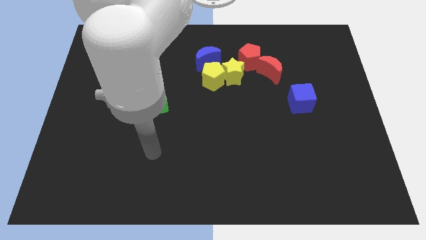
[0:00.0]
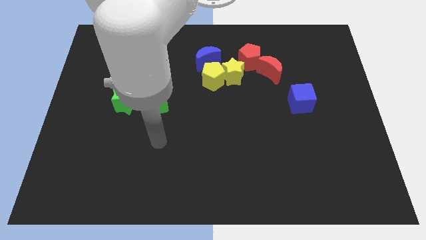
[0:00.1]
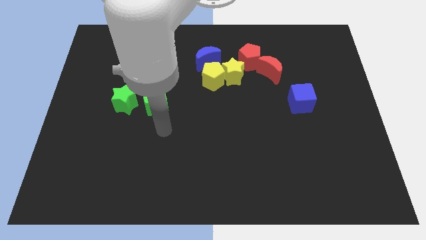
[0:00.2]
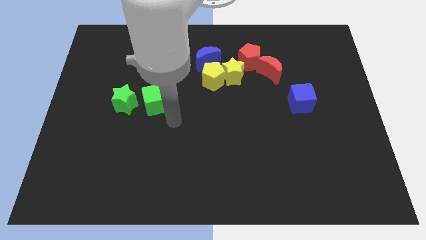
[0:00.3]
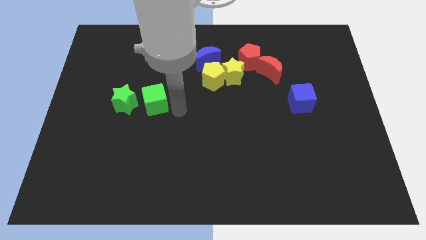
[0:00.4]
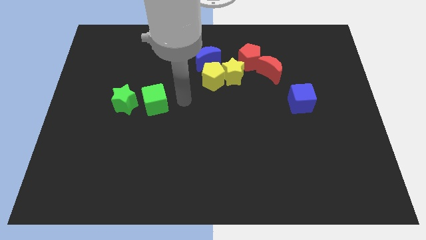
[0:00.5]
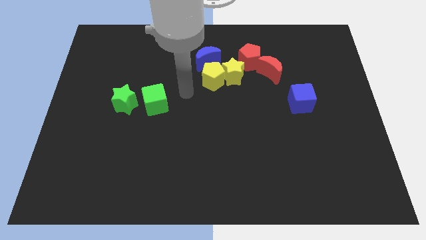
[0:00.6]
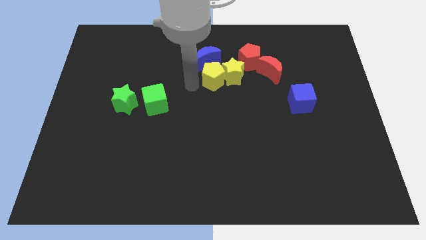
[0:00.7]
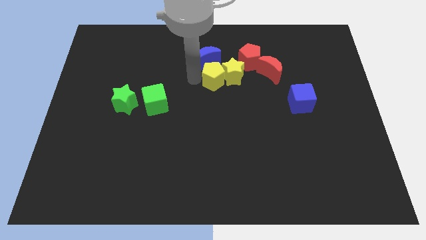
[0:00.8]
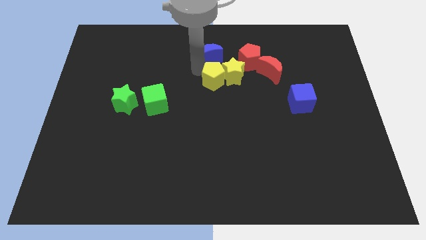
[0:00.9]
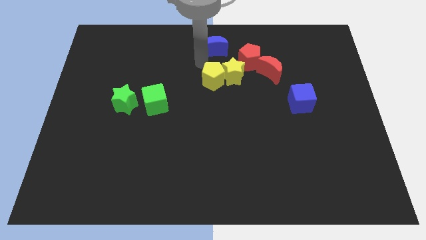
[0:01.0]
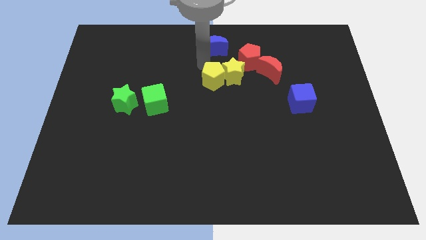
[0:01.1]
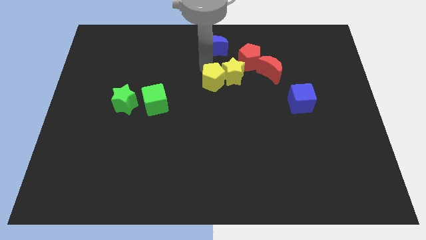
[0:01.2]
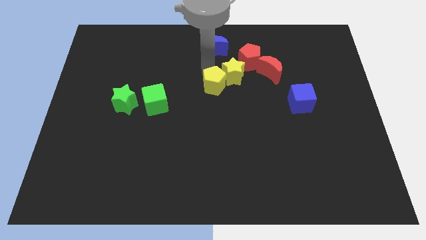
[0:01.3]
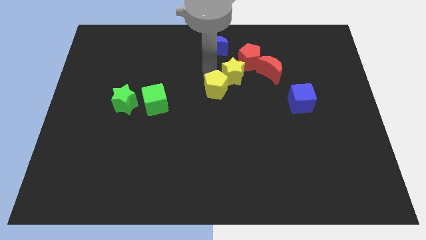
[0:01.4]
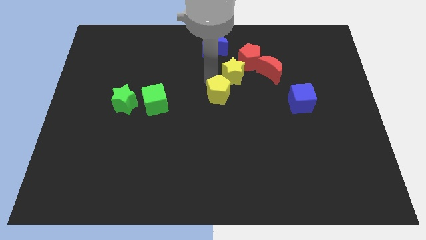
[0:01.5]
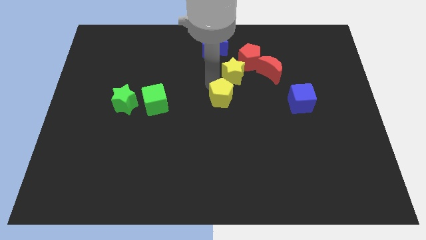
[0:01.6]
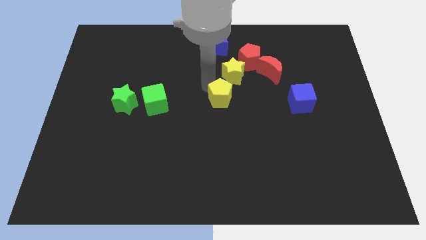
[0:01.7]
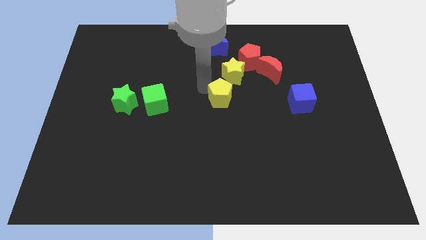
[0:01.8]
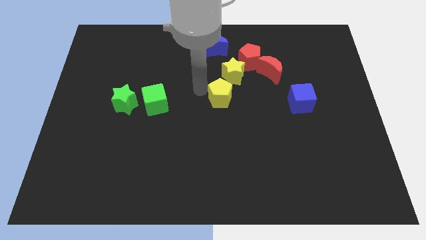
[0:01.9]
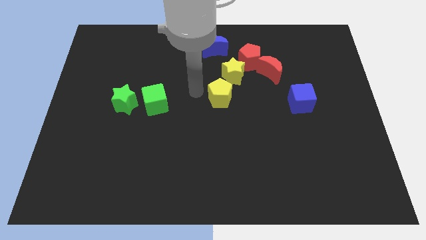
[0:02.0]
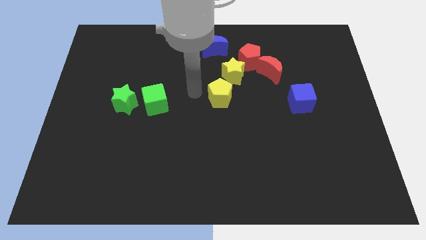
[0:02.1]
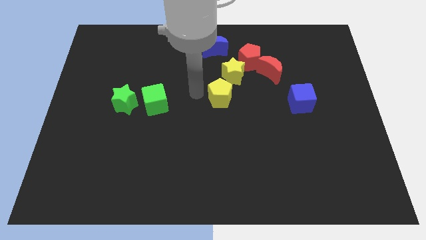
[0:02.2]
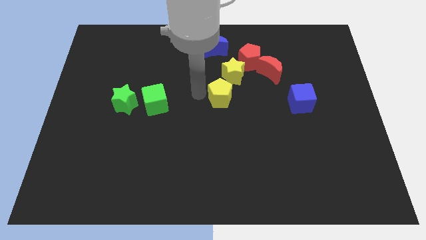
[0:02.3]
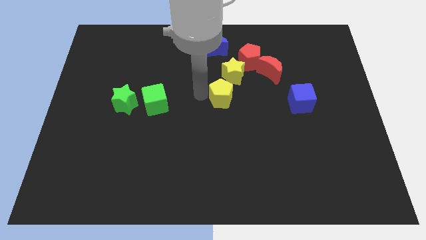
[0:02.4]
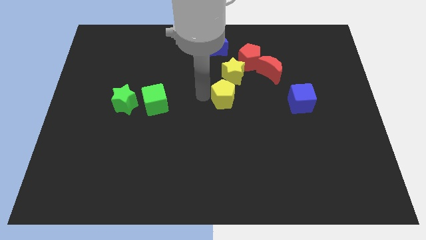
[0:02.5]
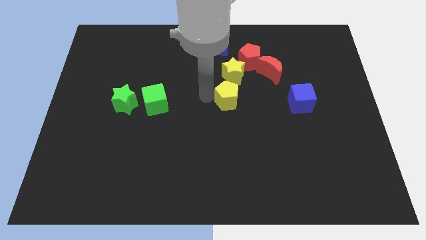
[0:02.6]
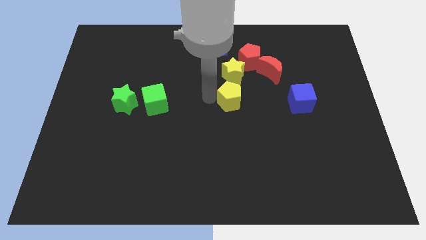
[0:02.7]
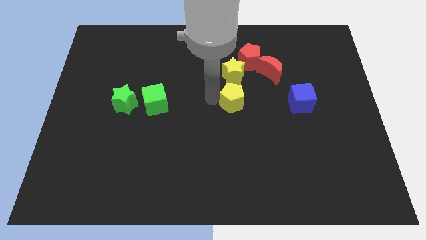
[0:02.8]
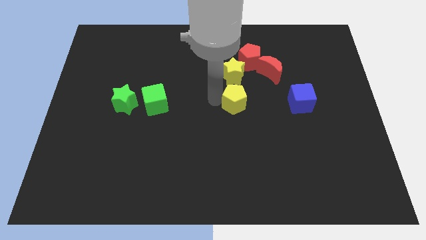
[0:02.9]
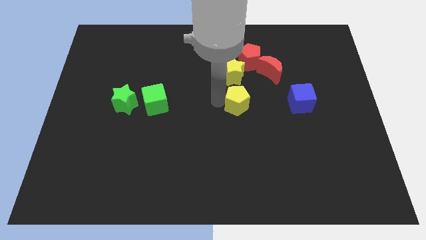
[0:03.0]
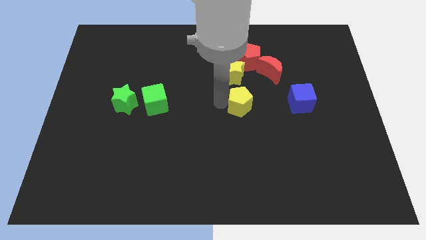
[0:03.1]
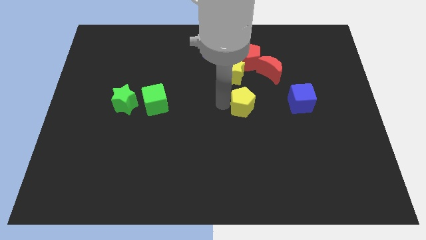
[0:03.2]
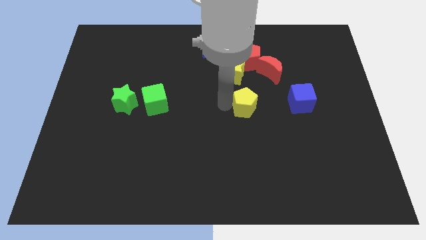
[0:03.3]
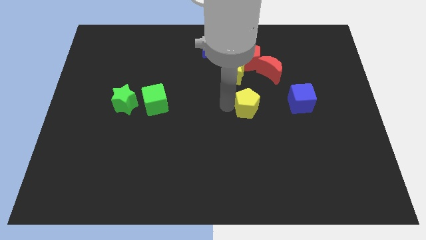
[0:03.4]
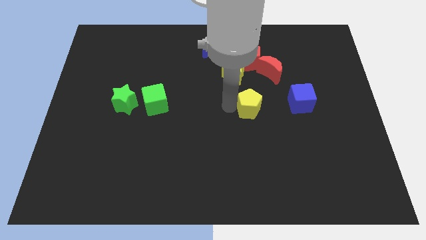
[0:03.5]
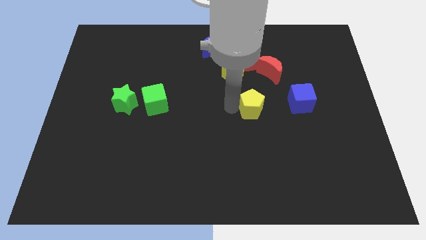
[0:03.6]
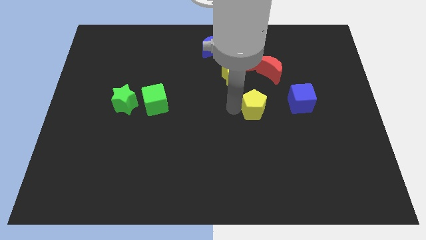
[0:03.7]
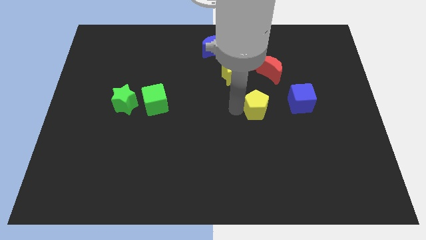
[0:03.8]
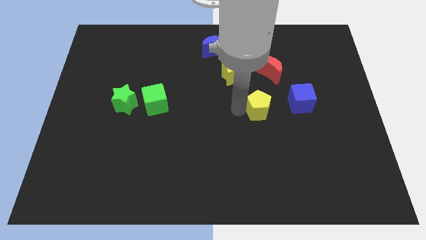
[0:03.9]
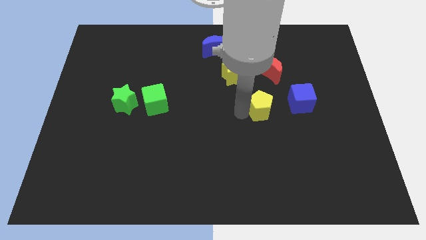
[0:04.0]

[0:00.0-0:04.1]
push the yellow pentagon right somewhat

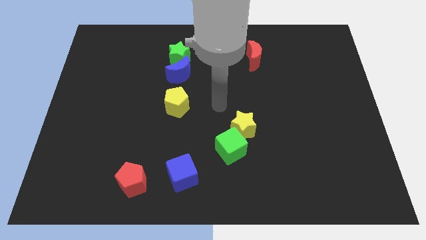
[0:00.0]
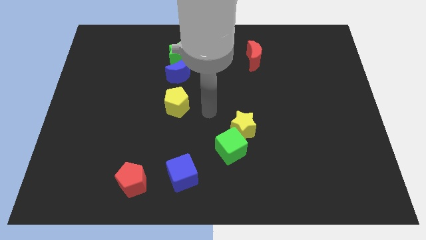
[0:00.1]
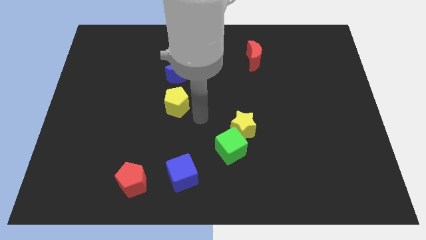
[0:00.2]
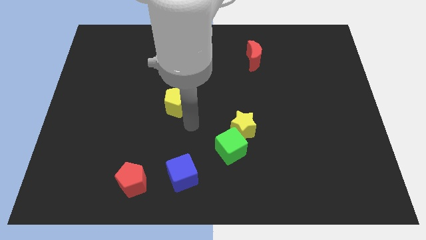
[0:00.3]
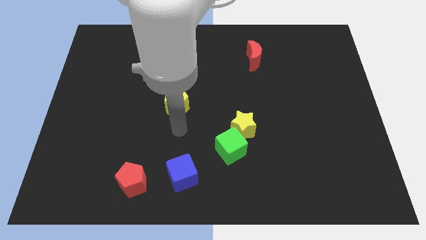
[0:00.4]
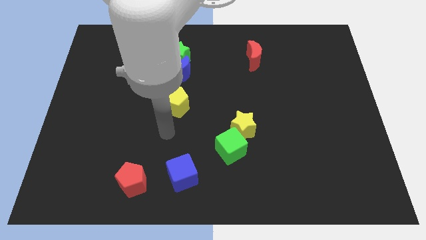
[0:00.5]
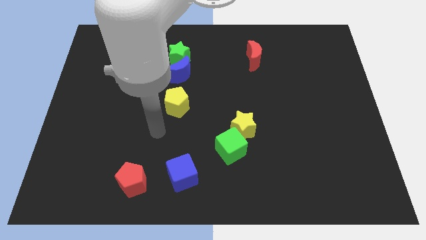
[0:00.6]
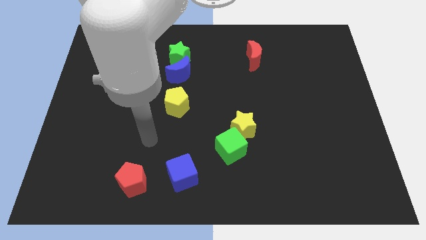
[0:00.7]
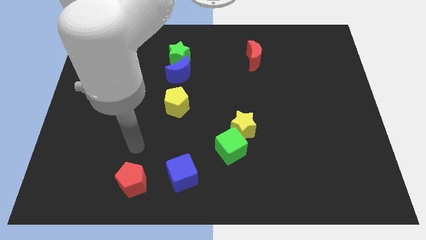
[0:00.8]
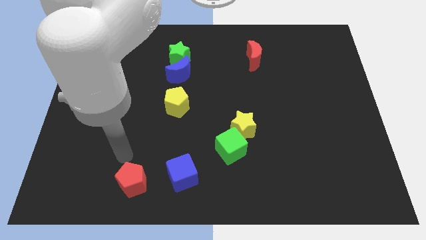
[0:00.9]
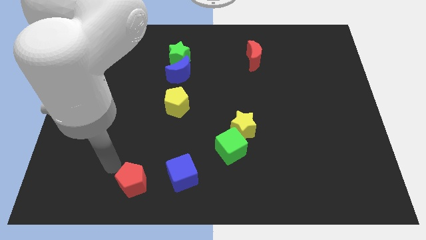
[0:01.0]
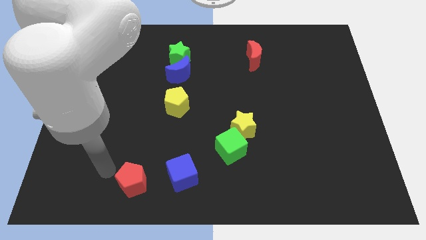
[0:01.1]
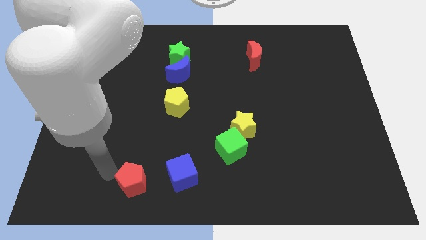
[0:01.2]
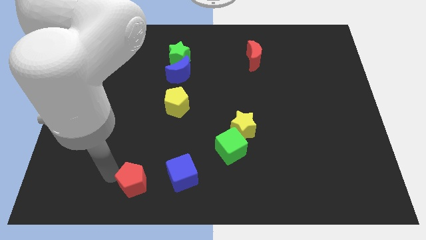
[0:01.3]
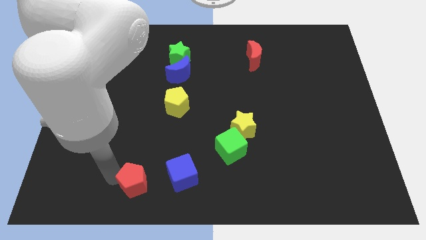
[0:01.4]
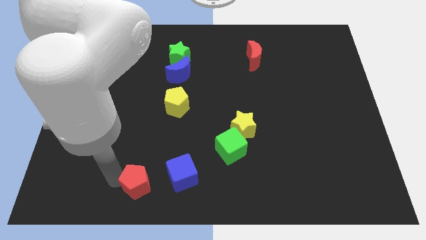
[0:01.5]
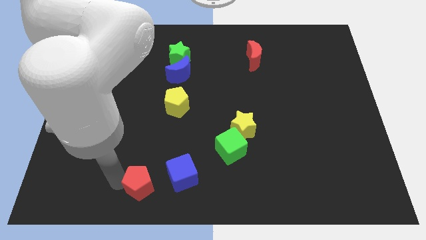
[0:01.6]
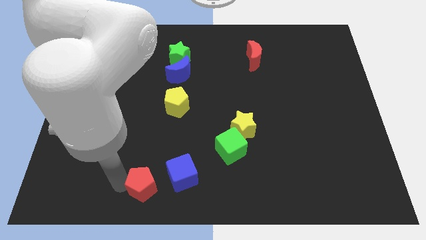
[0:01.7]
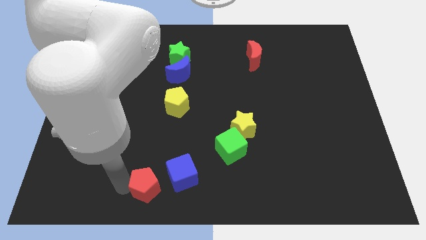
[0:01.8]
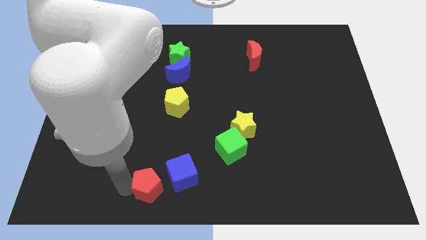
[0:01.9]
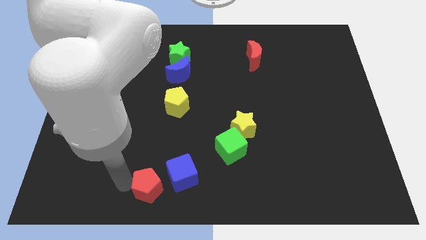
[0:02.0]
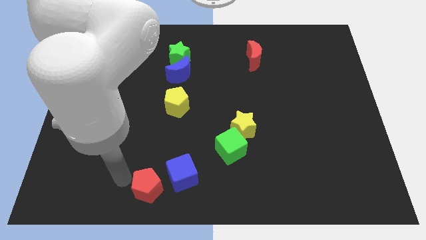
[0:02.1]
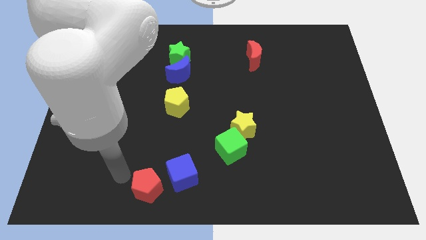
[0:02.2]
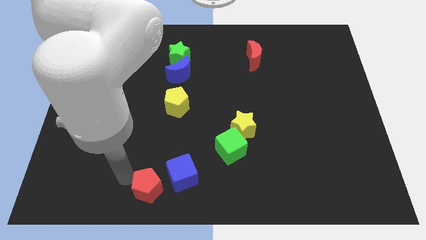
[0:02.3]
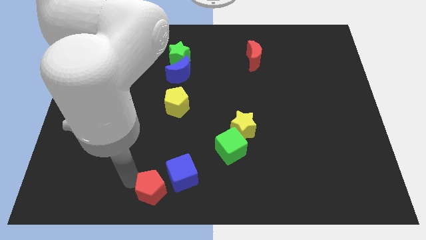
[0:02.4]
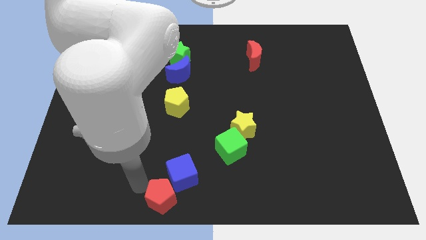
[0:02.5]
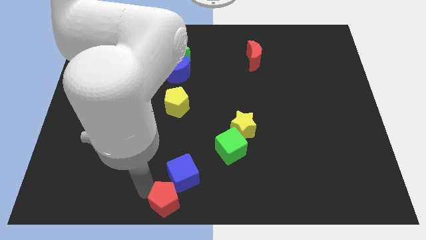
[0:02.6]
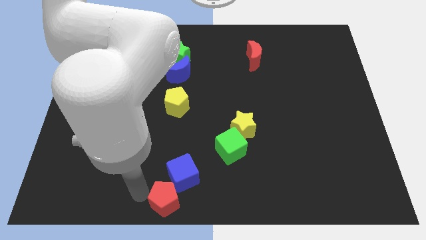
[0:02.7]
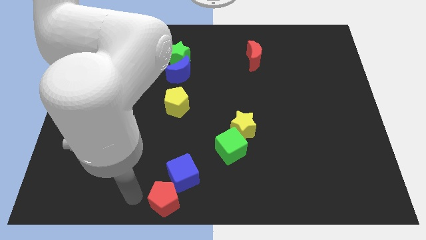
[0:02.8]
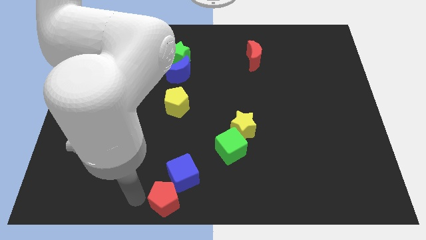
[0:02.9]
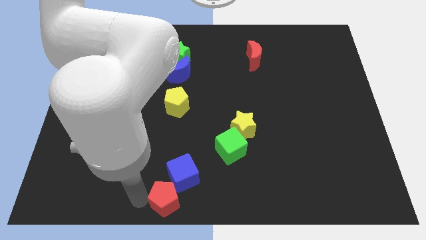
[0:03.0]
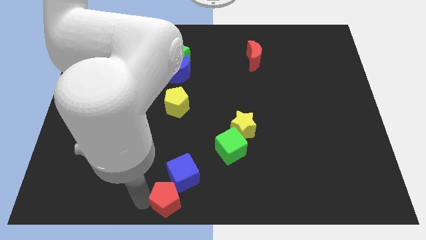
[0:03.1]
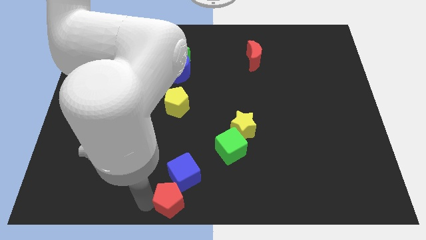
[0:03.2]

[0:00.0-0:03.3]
slide the red pentagon right a bit

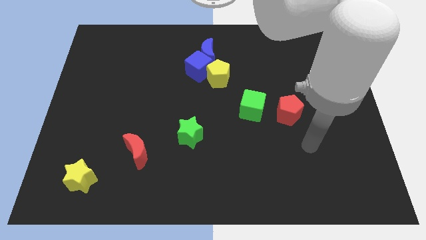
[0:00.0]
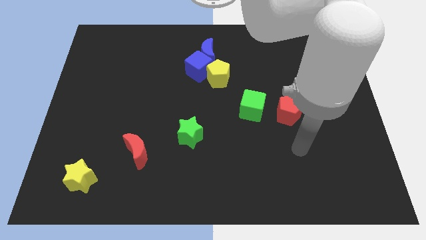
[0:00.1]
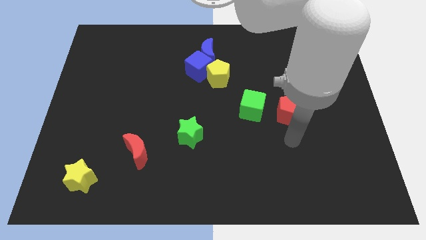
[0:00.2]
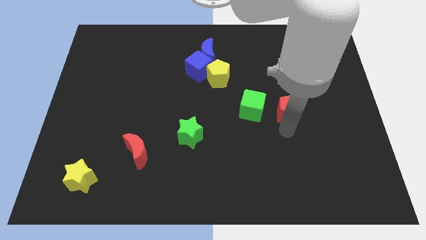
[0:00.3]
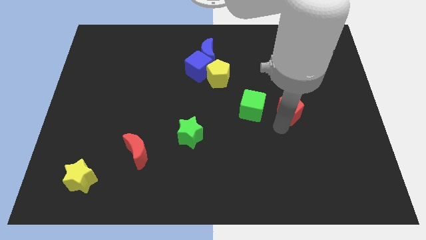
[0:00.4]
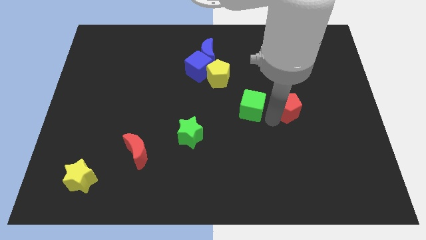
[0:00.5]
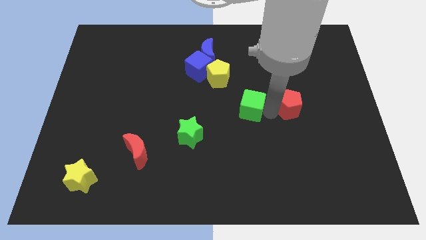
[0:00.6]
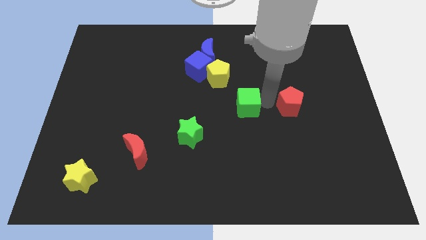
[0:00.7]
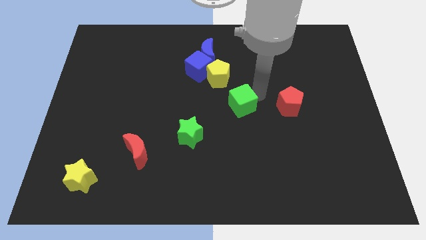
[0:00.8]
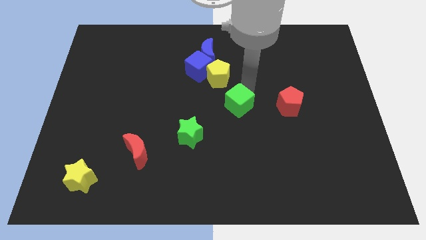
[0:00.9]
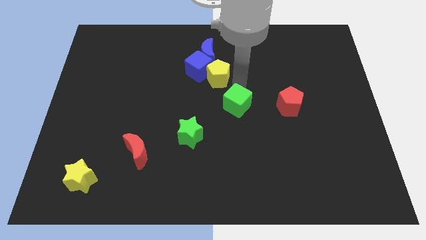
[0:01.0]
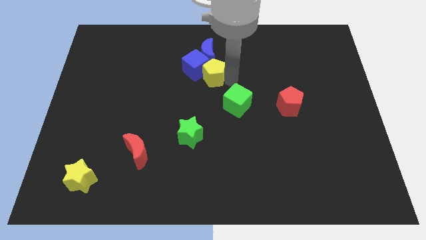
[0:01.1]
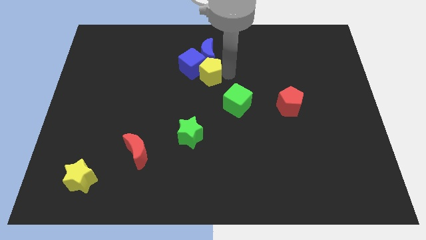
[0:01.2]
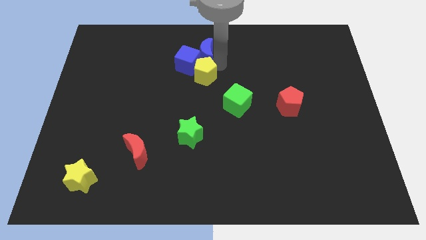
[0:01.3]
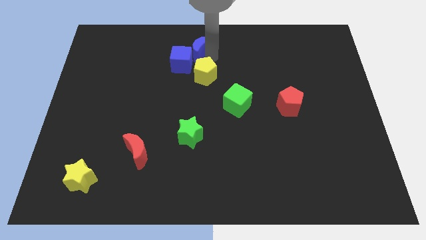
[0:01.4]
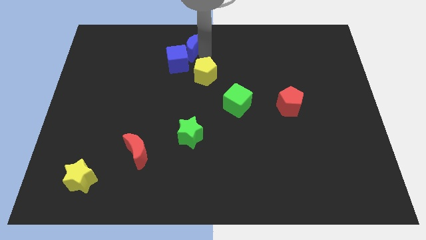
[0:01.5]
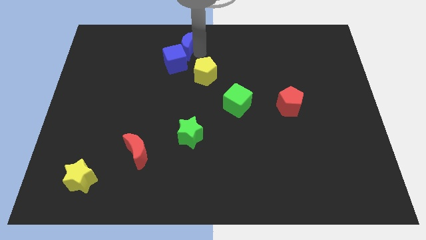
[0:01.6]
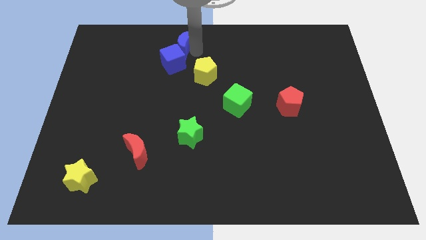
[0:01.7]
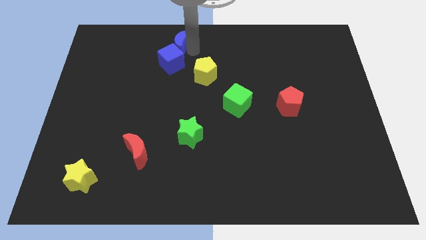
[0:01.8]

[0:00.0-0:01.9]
slide the blue cube left a little bit
